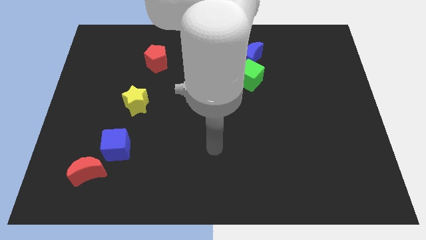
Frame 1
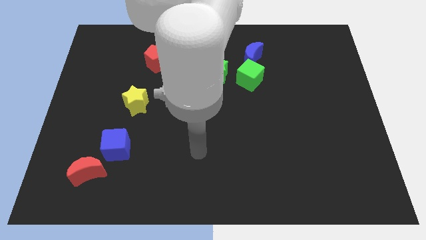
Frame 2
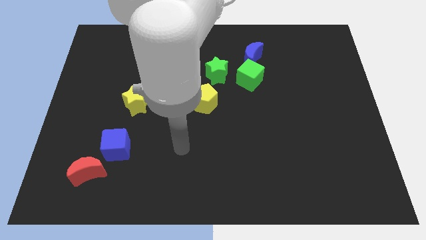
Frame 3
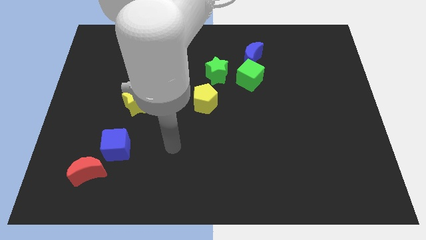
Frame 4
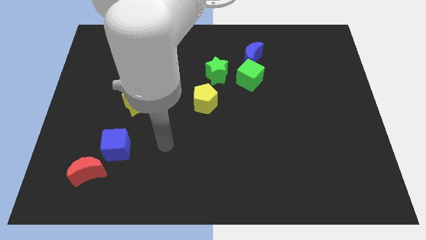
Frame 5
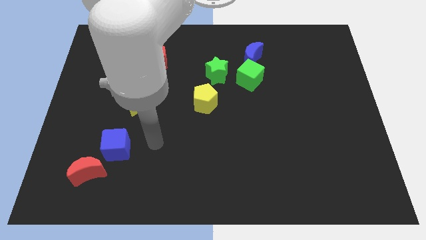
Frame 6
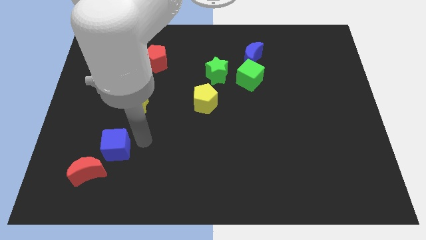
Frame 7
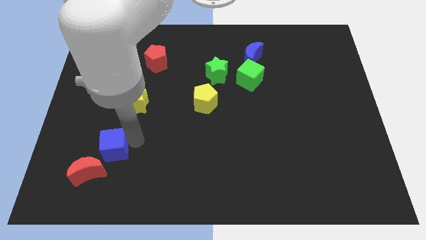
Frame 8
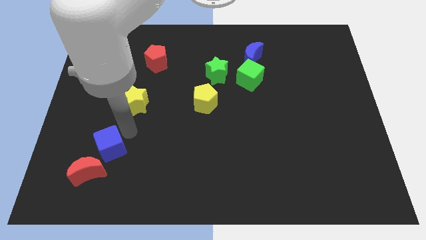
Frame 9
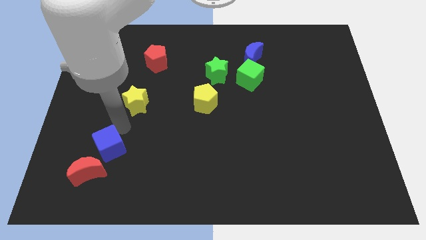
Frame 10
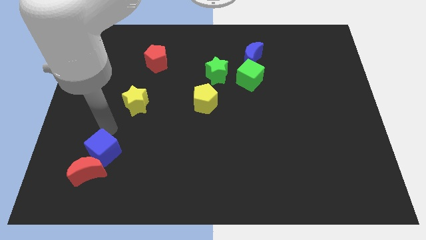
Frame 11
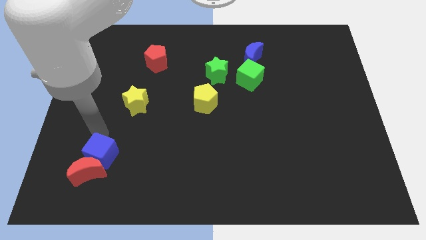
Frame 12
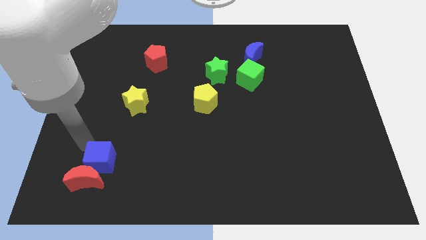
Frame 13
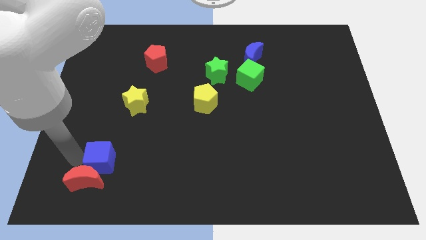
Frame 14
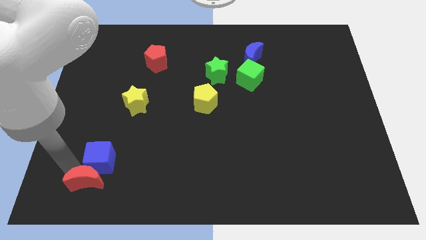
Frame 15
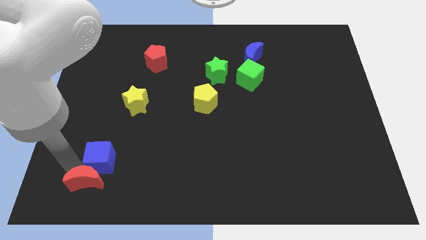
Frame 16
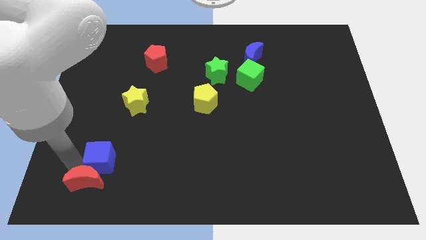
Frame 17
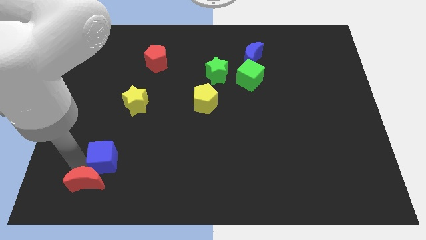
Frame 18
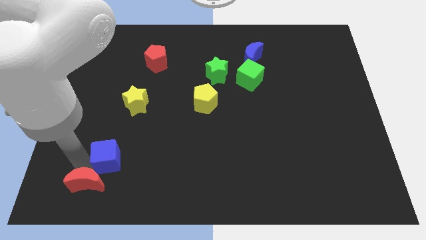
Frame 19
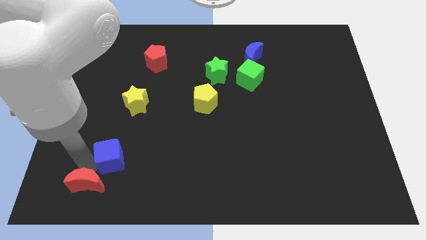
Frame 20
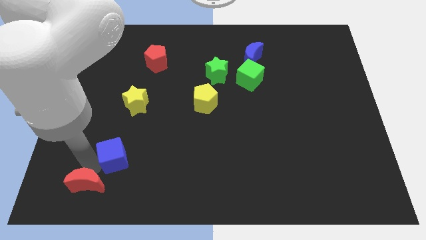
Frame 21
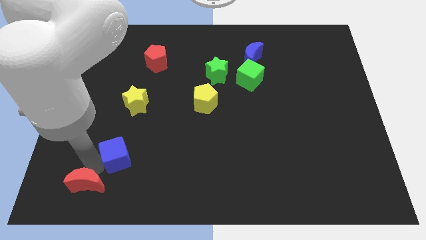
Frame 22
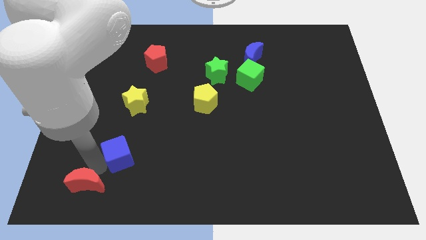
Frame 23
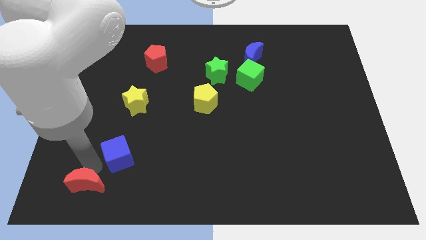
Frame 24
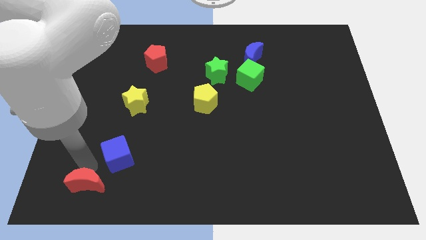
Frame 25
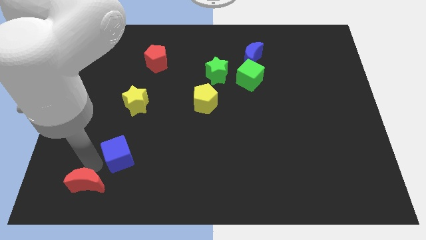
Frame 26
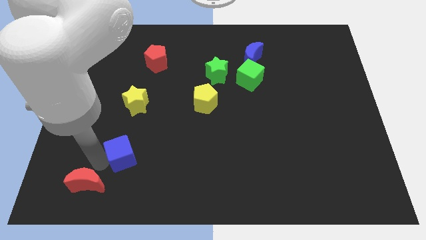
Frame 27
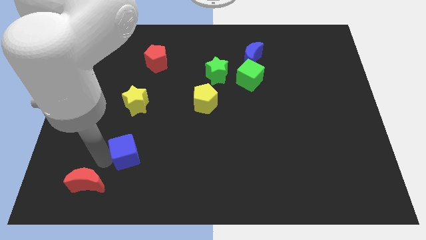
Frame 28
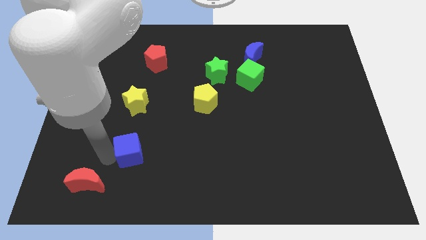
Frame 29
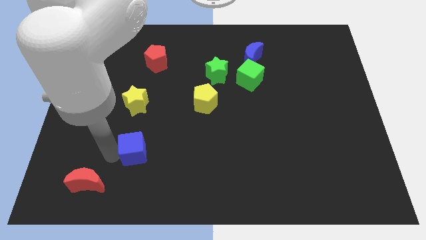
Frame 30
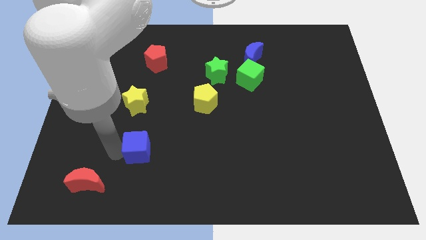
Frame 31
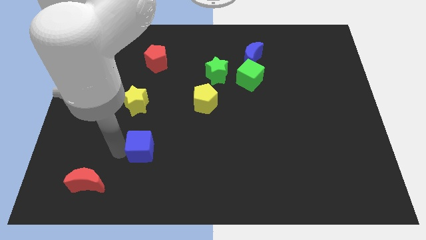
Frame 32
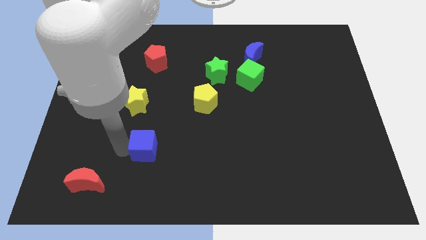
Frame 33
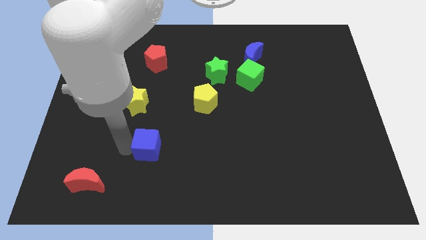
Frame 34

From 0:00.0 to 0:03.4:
slightly slide the blue cube to the right

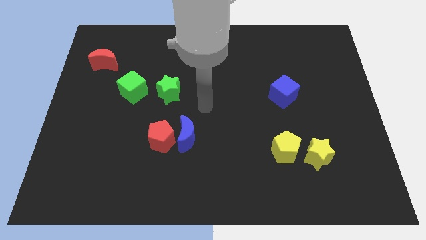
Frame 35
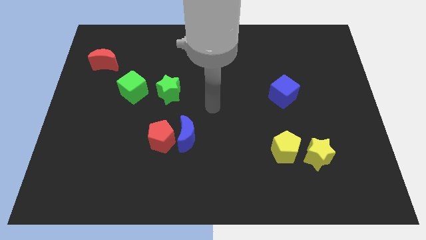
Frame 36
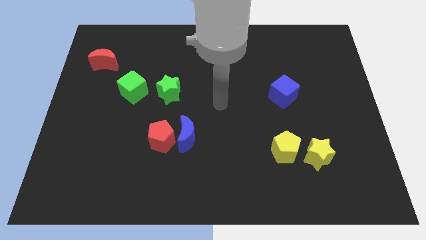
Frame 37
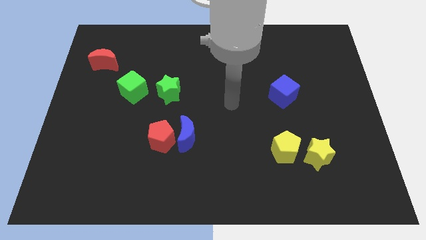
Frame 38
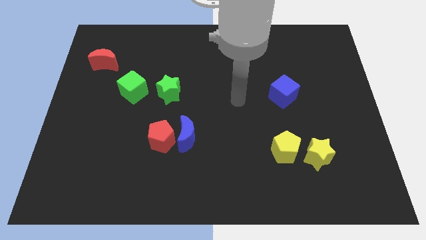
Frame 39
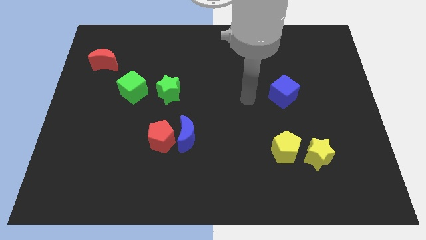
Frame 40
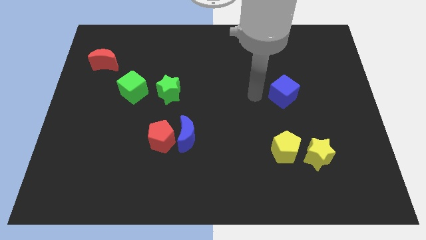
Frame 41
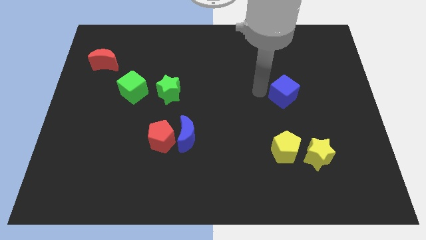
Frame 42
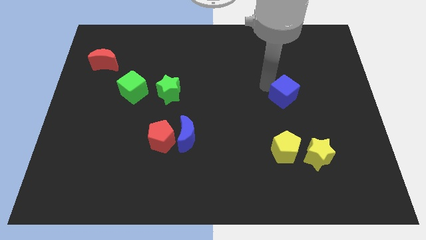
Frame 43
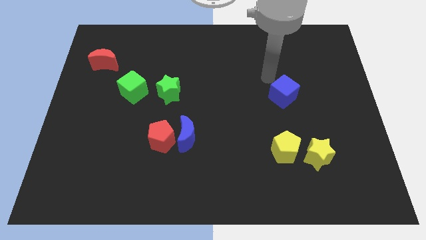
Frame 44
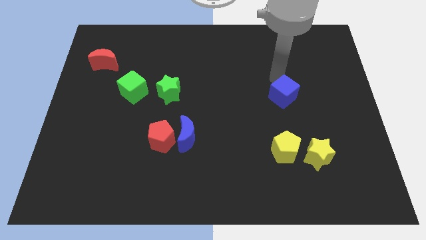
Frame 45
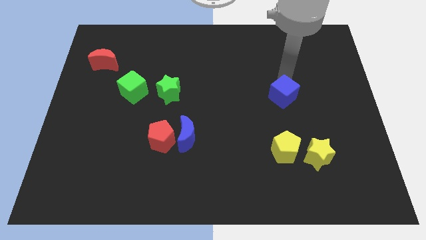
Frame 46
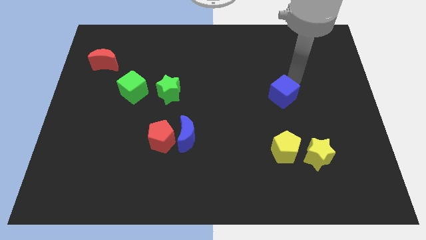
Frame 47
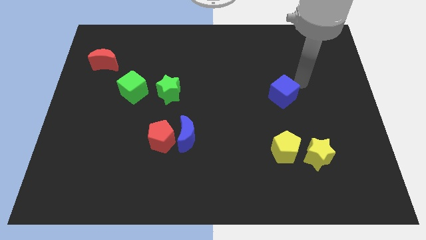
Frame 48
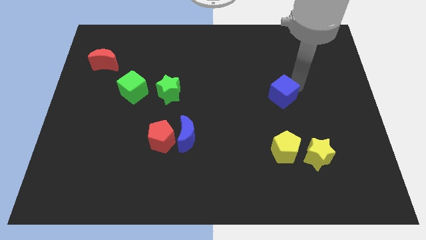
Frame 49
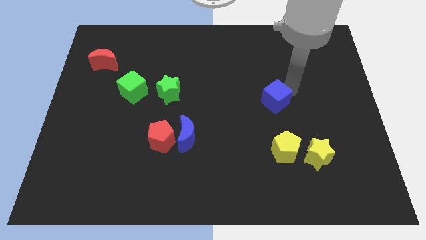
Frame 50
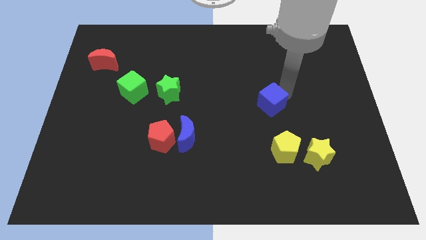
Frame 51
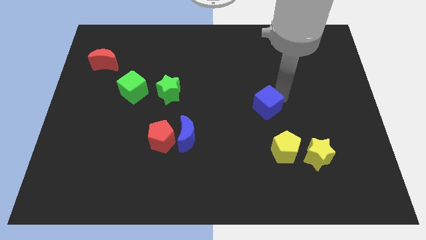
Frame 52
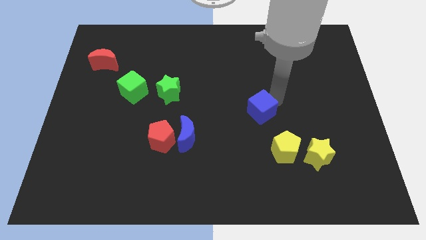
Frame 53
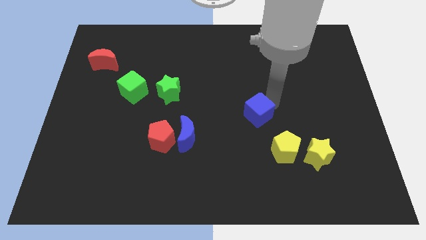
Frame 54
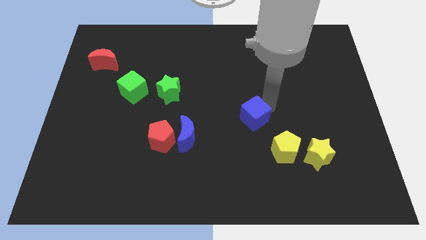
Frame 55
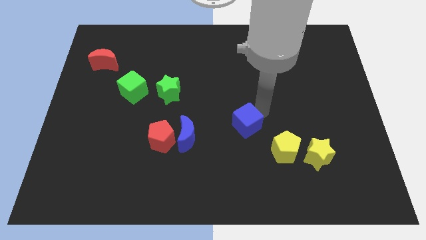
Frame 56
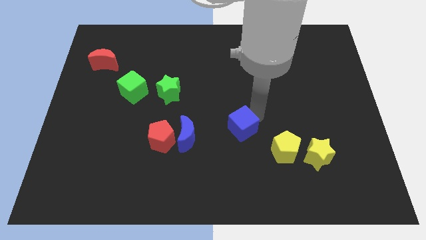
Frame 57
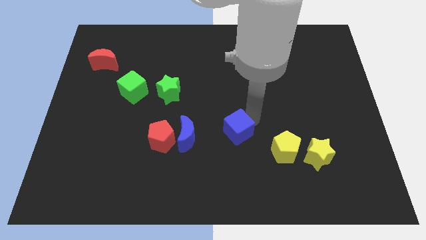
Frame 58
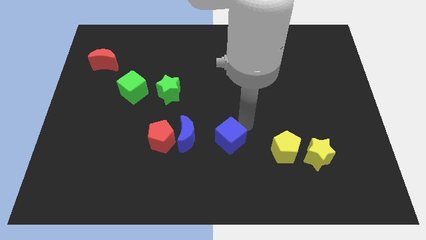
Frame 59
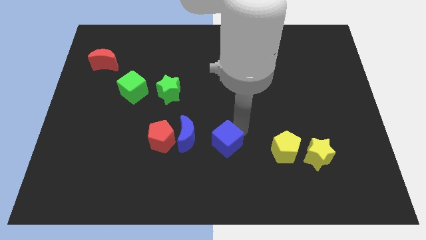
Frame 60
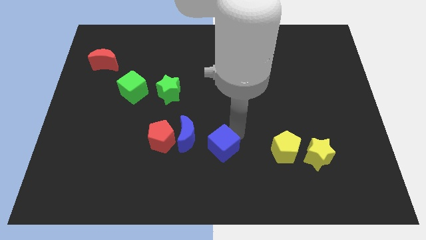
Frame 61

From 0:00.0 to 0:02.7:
push the blue cube down and to the left diagonally

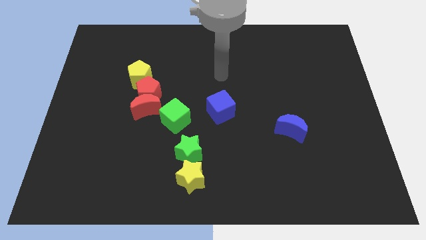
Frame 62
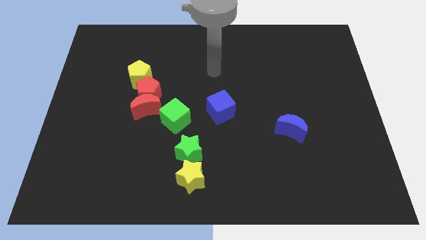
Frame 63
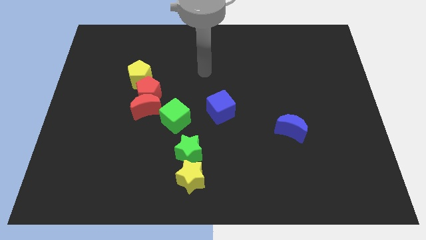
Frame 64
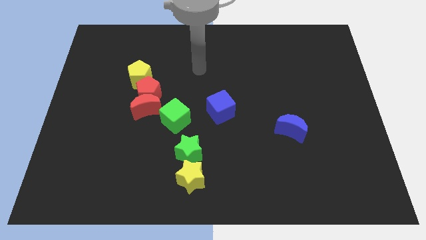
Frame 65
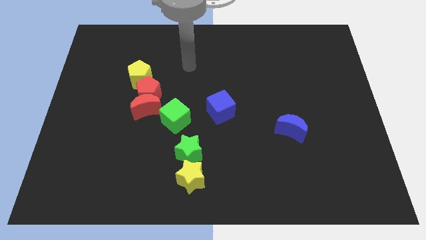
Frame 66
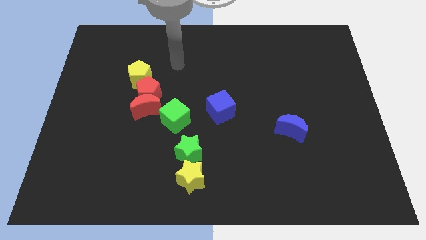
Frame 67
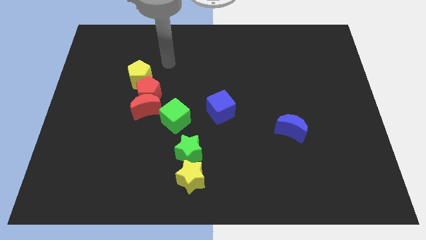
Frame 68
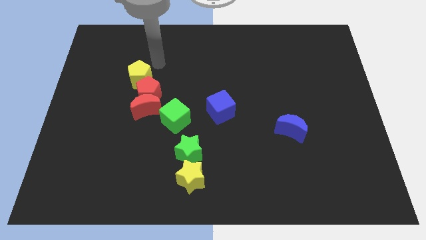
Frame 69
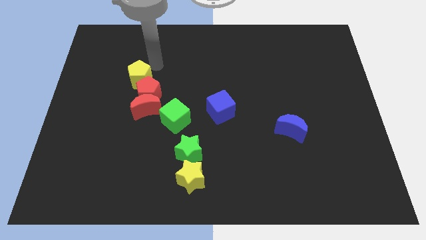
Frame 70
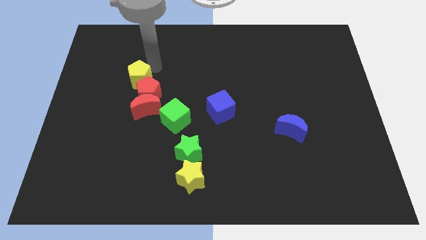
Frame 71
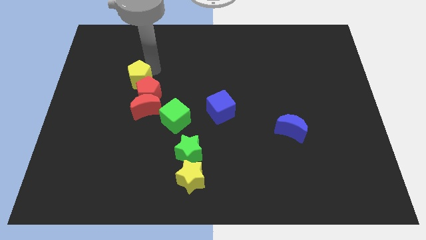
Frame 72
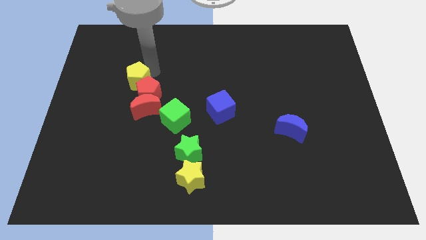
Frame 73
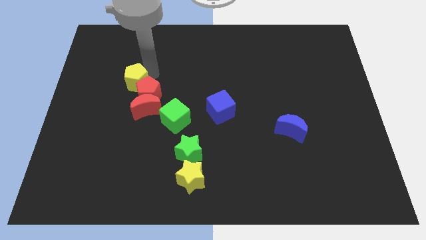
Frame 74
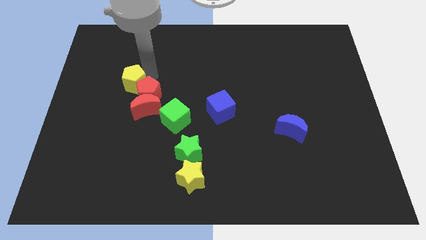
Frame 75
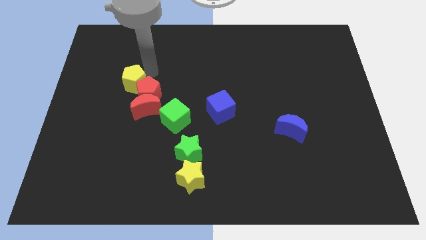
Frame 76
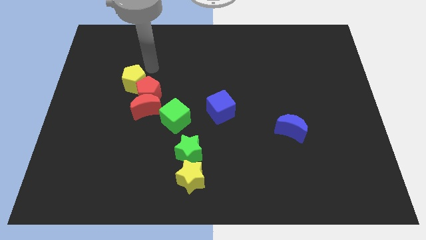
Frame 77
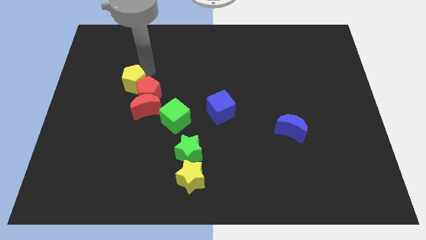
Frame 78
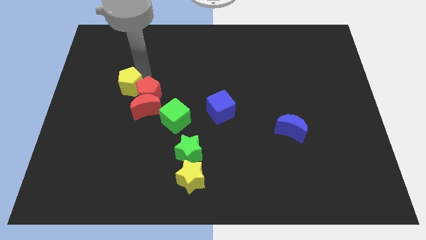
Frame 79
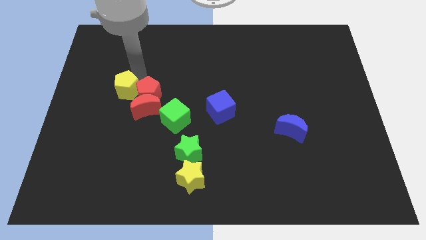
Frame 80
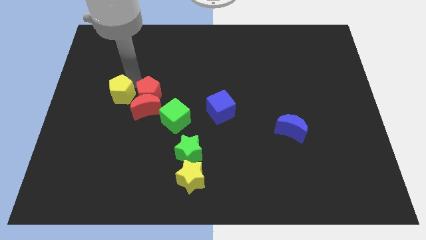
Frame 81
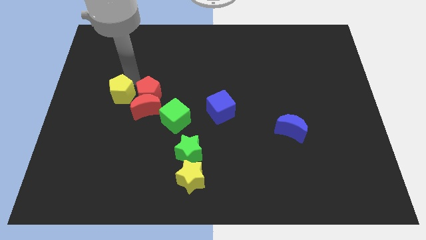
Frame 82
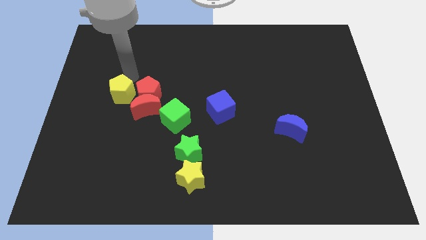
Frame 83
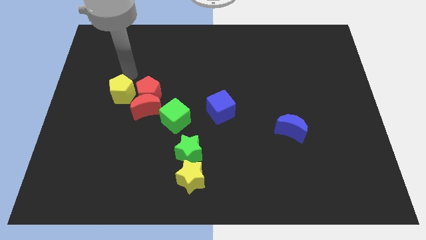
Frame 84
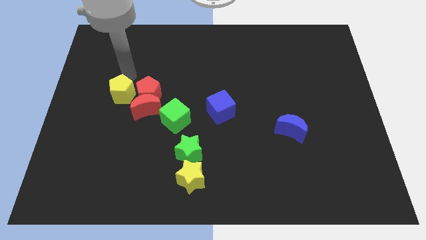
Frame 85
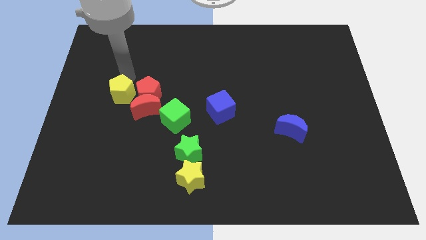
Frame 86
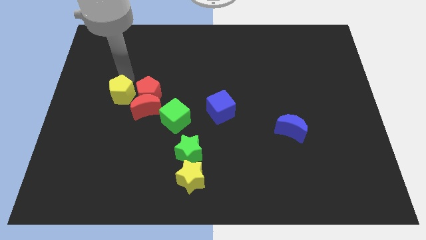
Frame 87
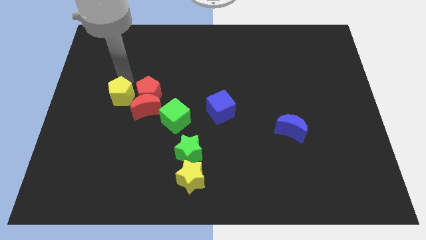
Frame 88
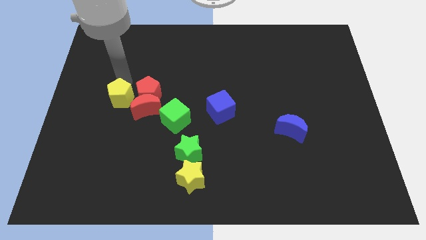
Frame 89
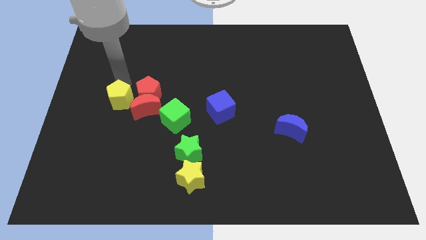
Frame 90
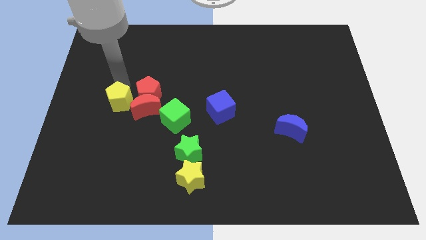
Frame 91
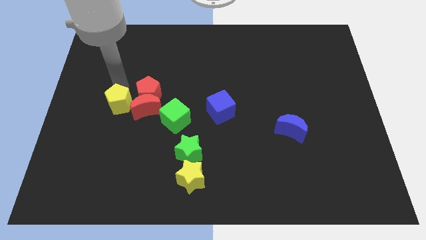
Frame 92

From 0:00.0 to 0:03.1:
move the yellow pentagon somewhat downwards
